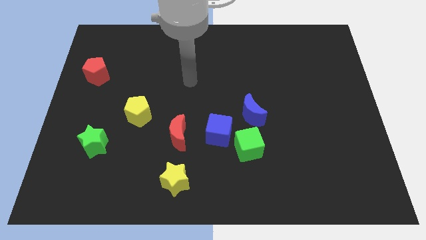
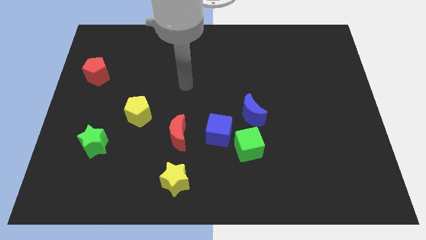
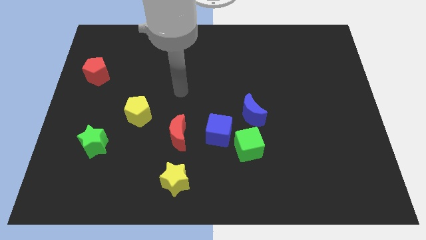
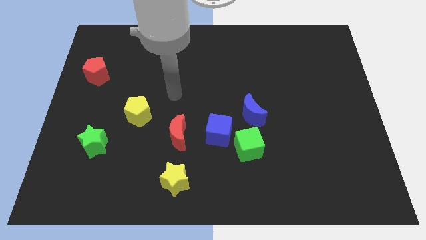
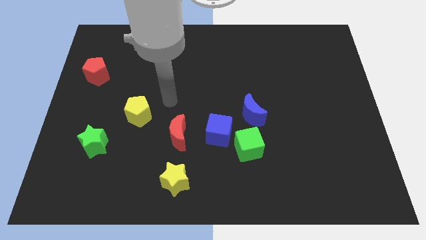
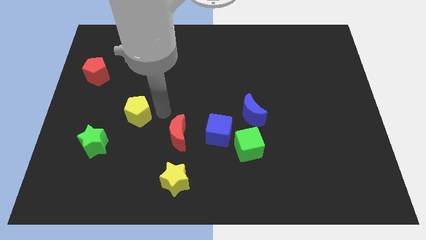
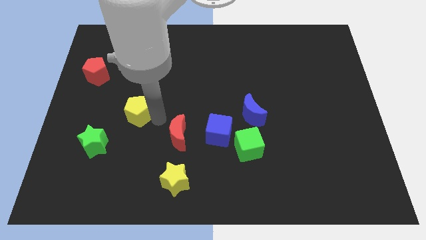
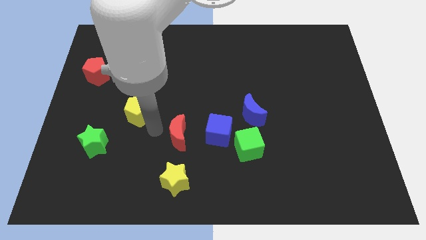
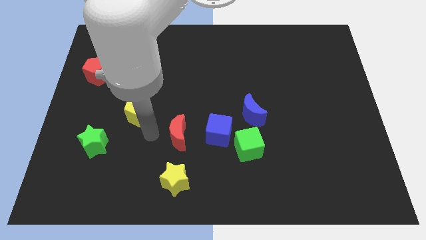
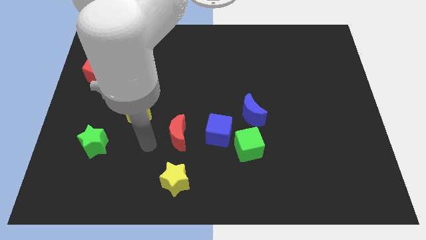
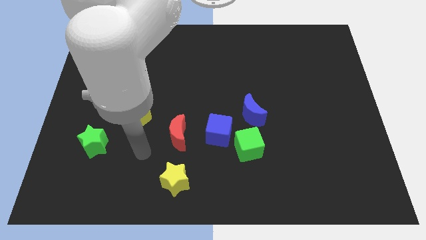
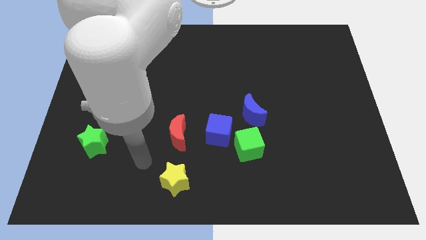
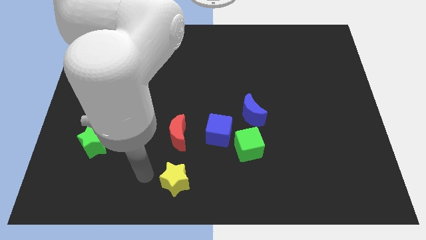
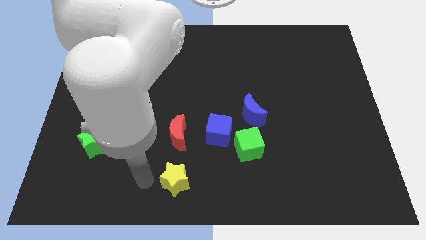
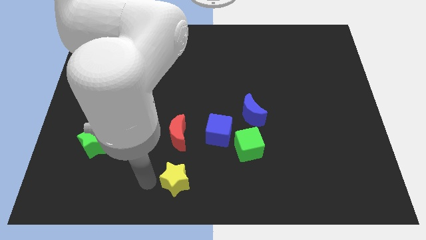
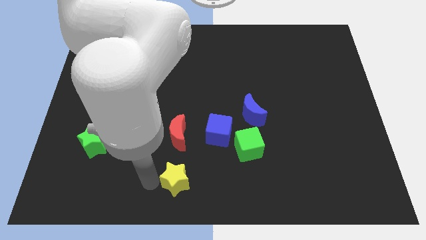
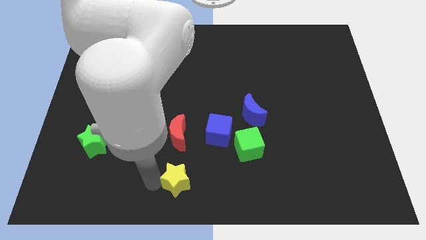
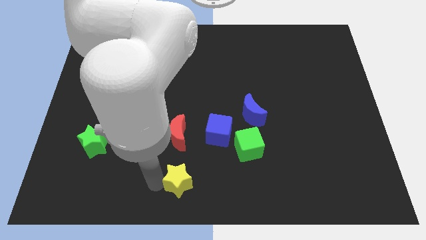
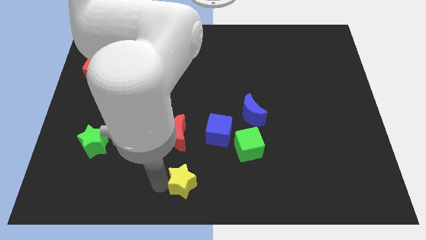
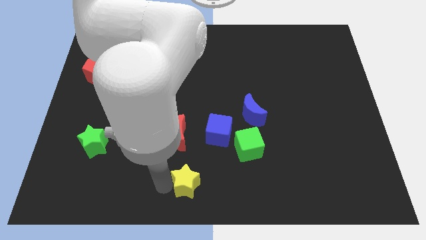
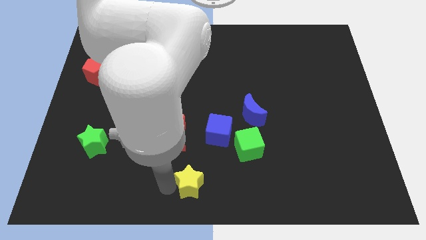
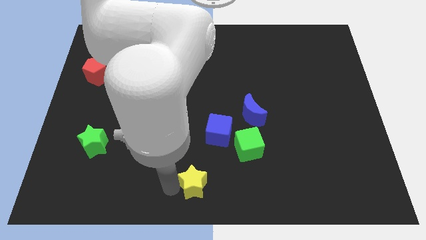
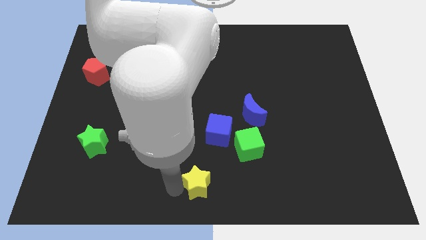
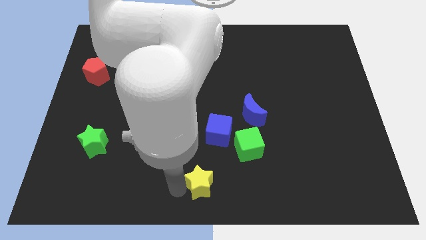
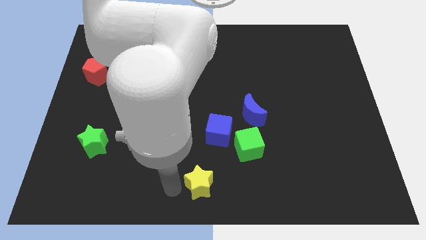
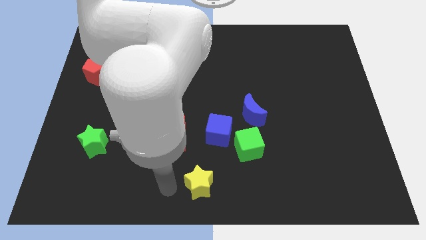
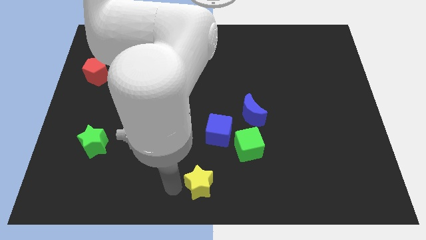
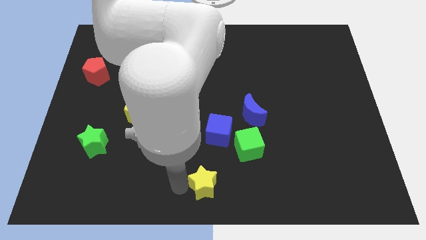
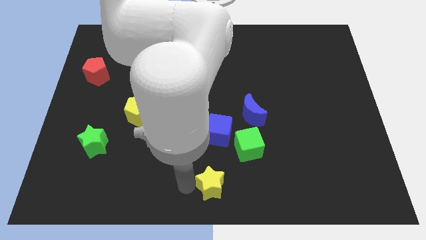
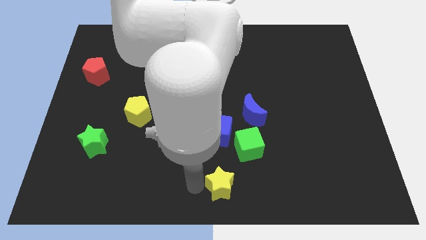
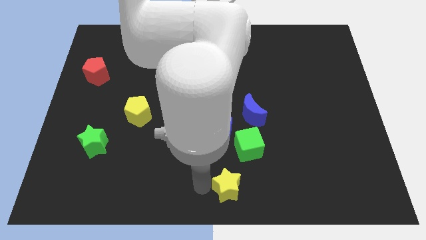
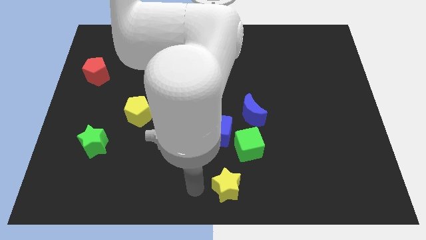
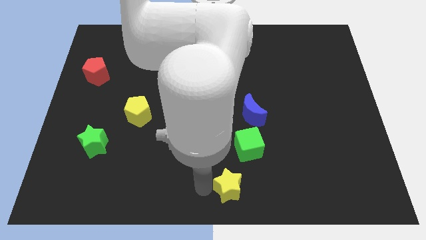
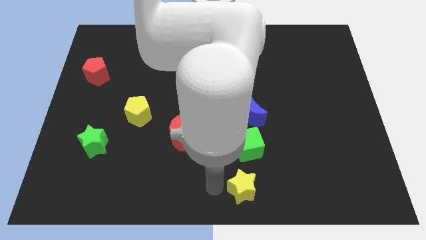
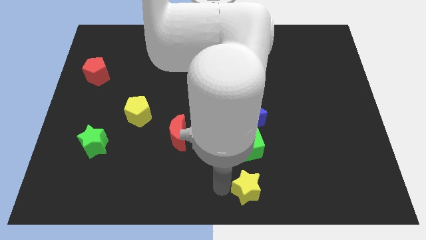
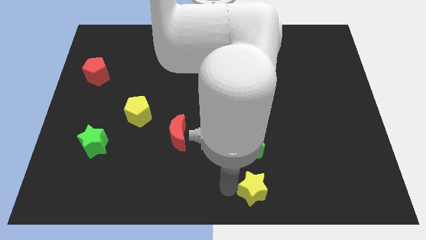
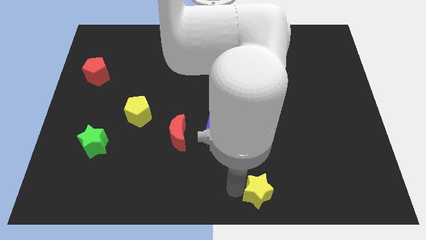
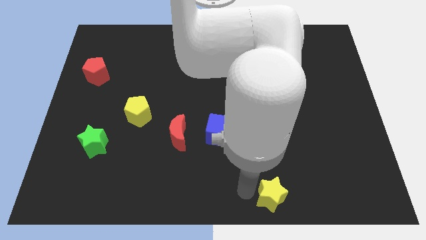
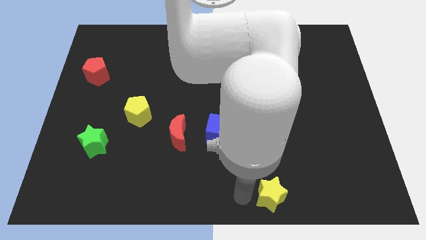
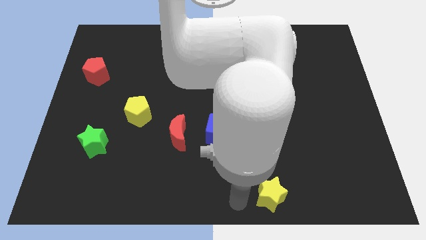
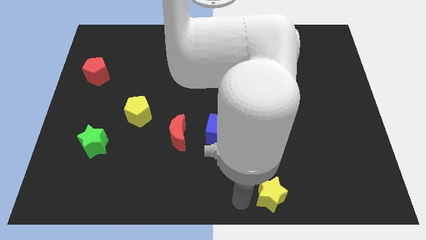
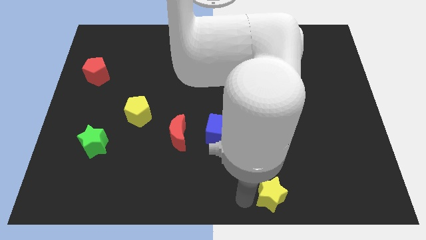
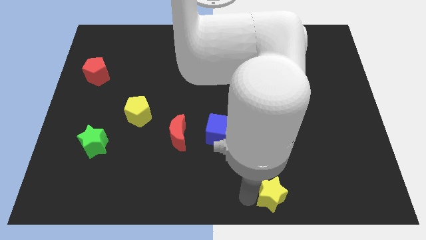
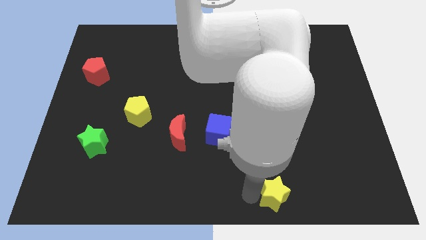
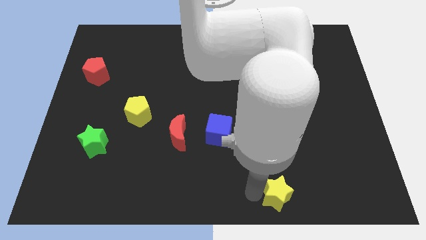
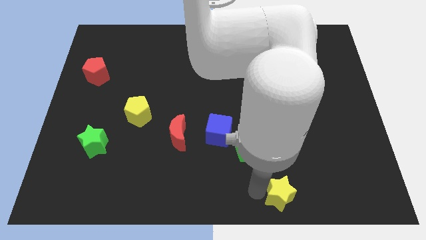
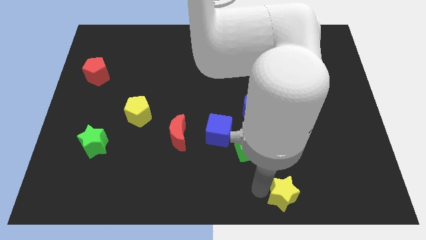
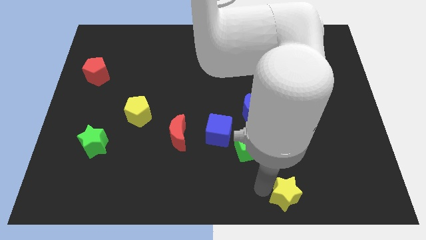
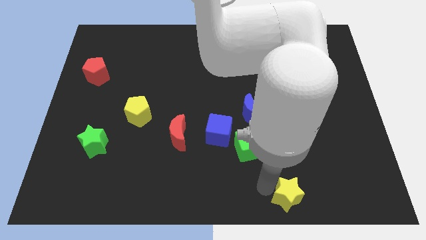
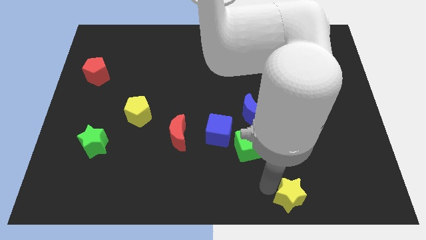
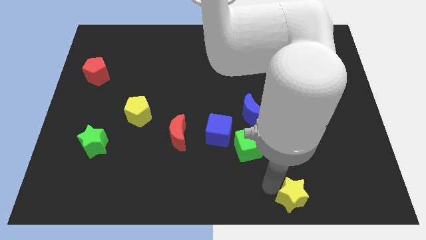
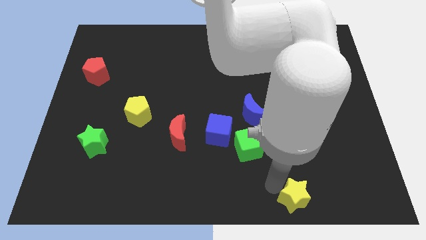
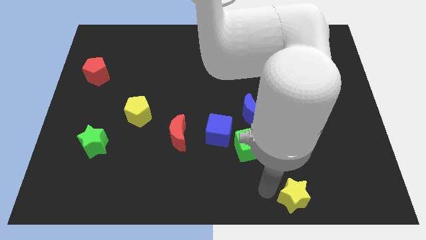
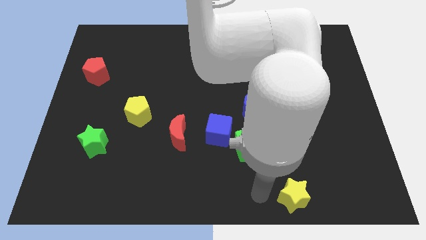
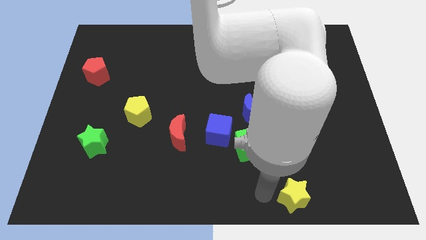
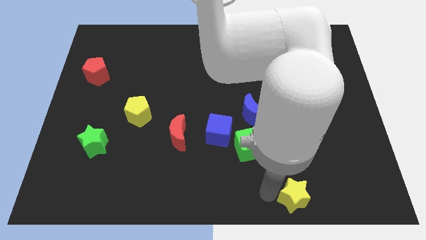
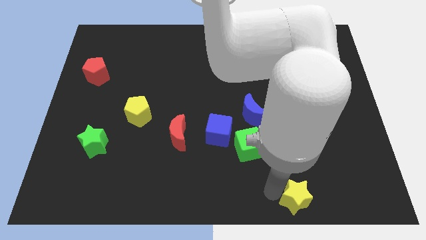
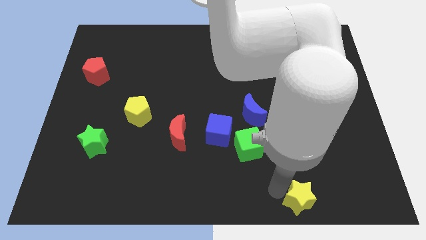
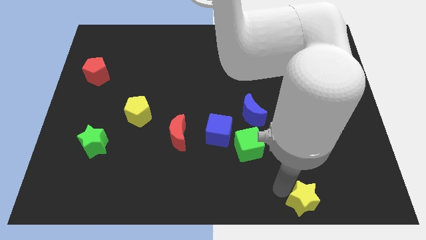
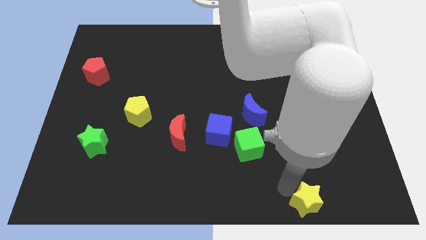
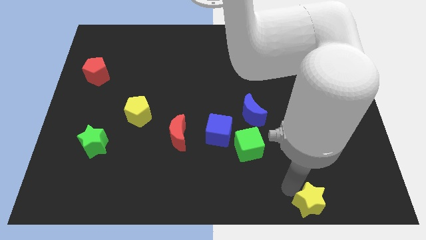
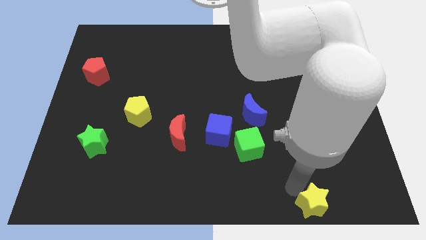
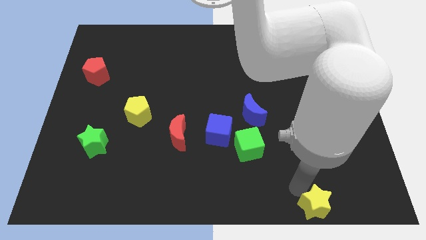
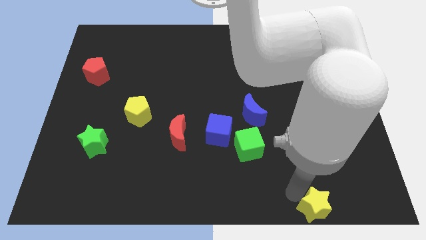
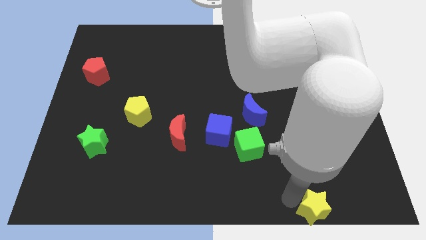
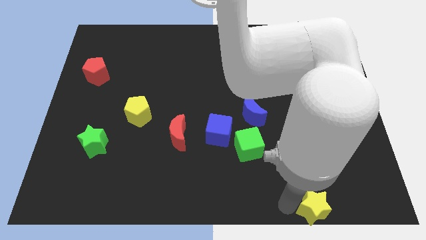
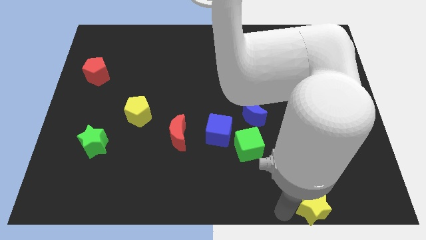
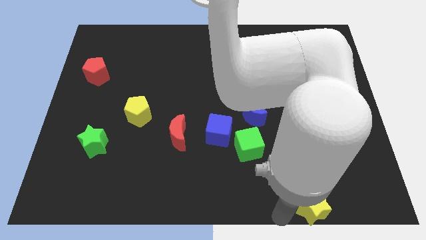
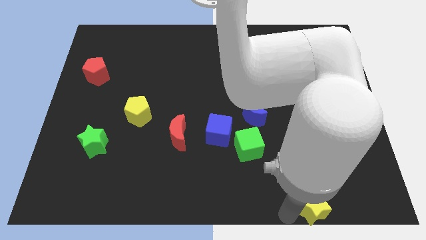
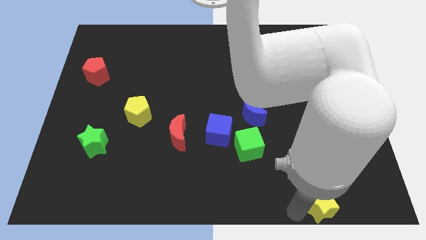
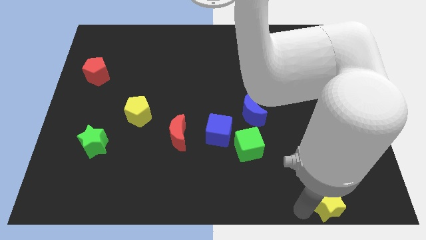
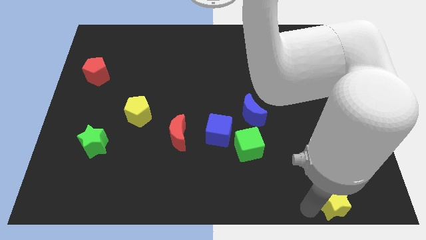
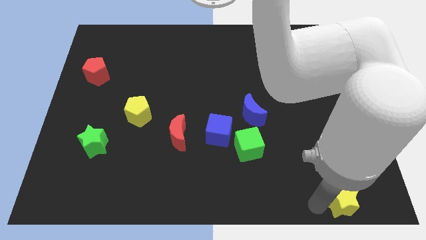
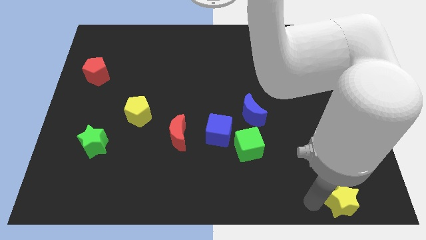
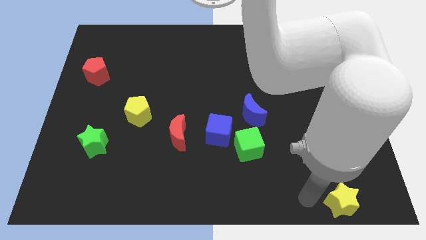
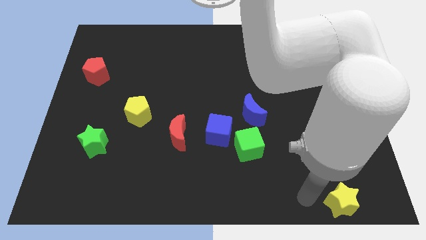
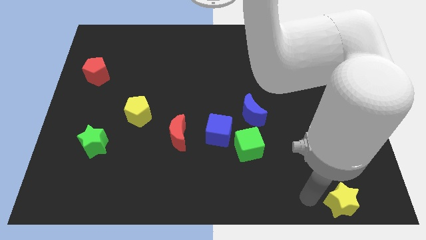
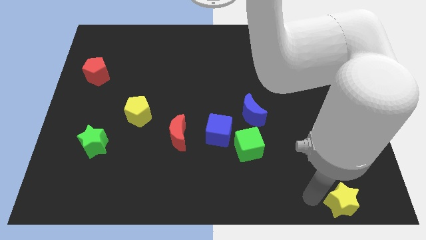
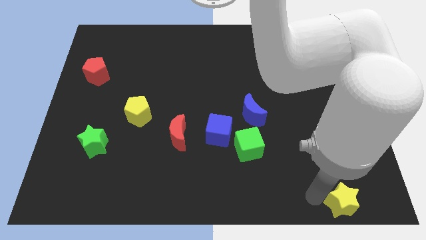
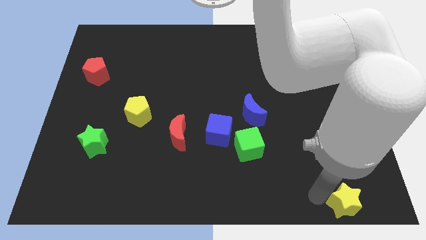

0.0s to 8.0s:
put the yellow star to the bottom right of the board
